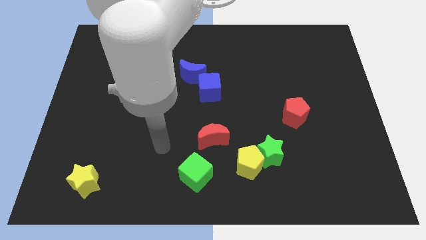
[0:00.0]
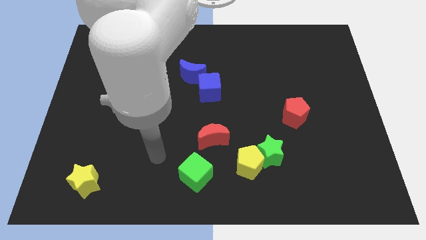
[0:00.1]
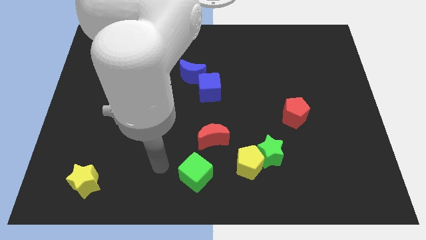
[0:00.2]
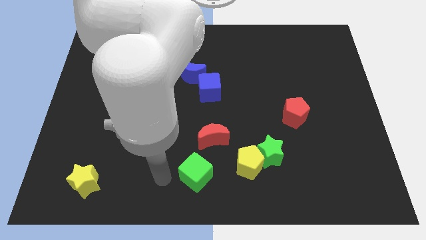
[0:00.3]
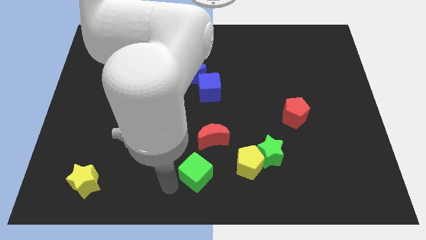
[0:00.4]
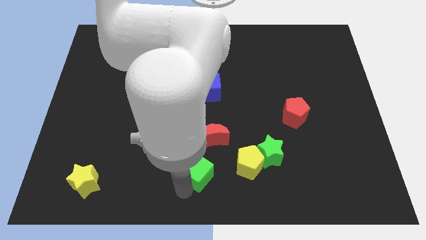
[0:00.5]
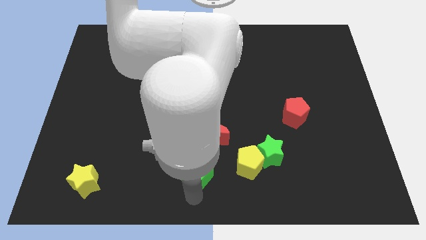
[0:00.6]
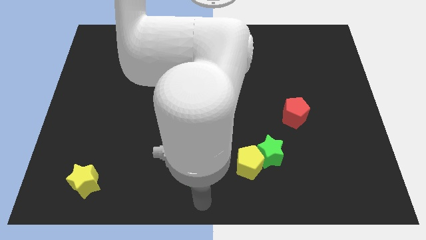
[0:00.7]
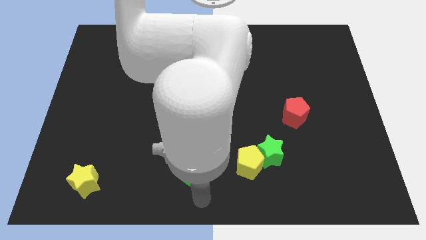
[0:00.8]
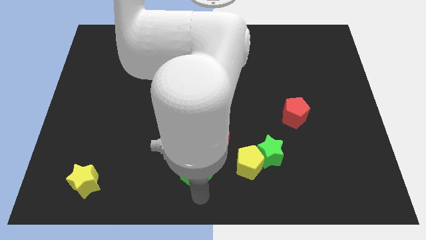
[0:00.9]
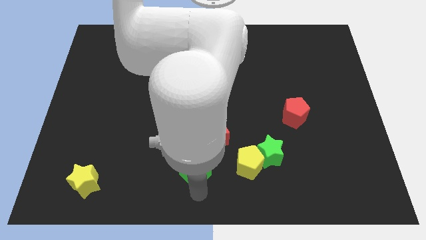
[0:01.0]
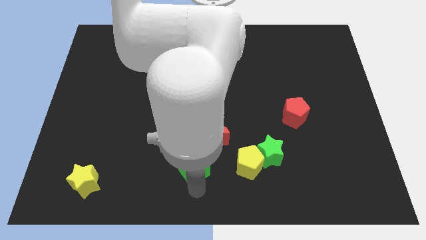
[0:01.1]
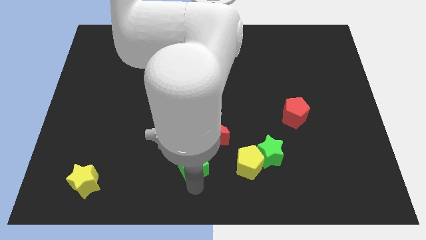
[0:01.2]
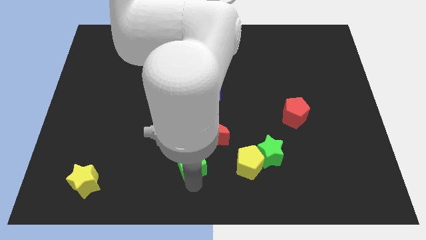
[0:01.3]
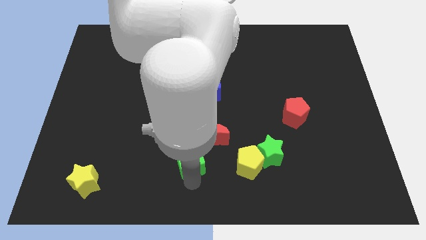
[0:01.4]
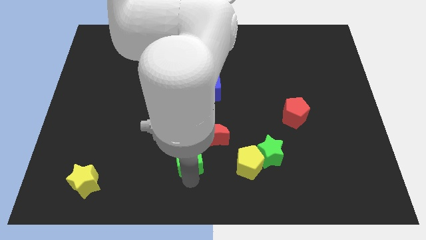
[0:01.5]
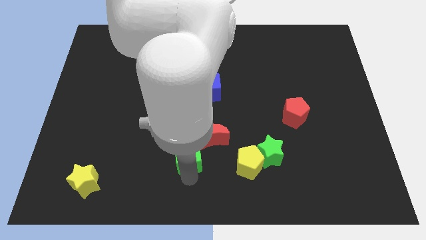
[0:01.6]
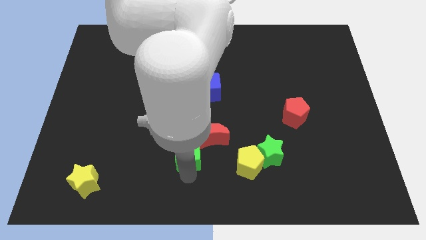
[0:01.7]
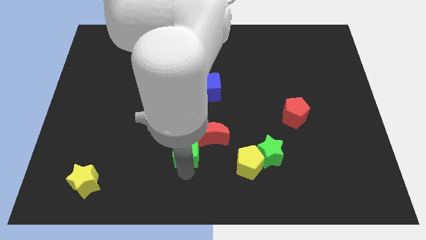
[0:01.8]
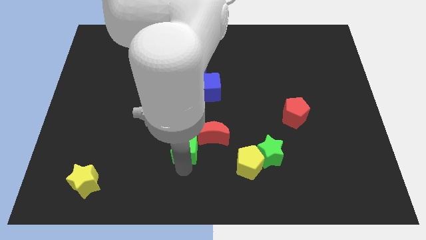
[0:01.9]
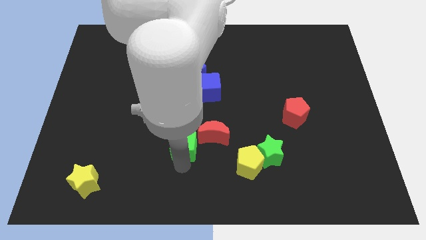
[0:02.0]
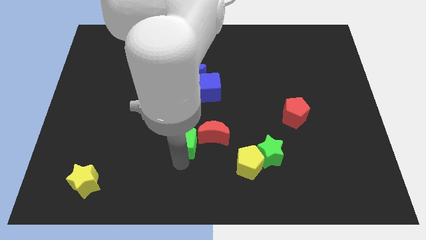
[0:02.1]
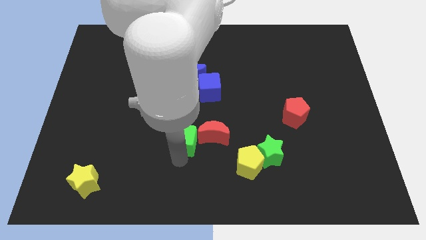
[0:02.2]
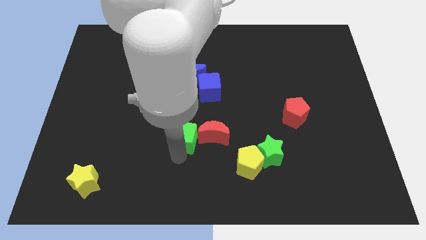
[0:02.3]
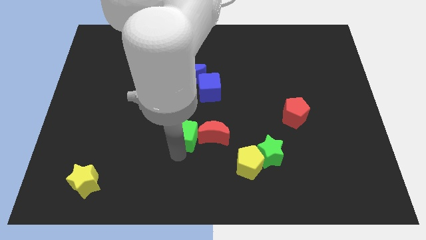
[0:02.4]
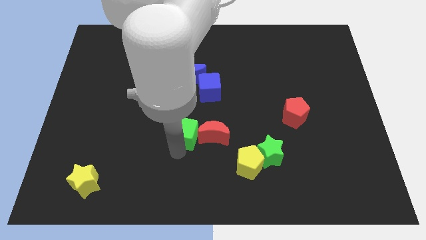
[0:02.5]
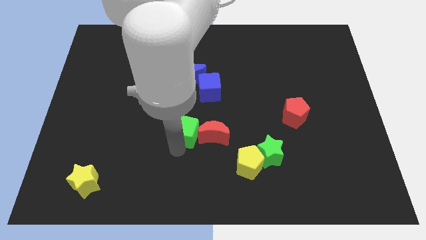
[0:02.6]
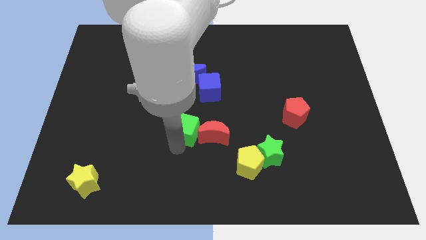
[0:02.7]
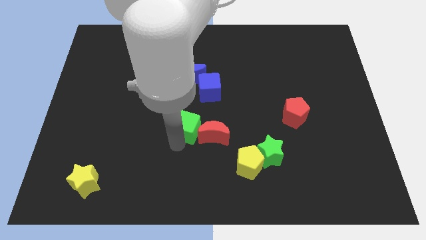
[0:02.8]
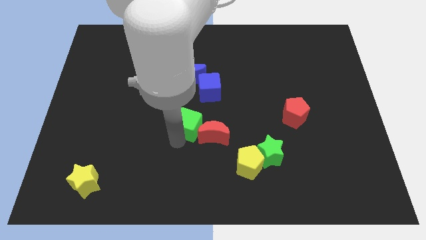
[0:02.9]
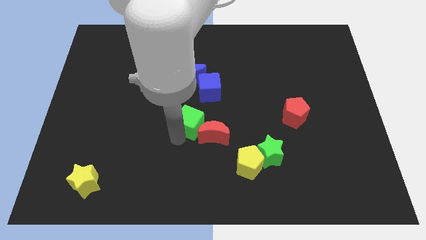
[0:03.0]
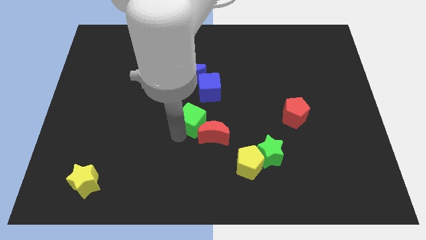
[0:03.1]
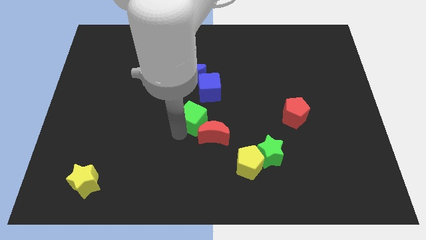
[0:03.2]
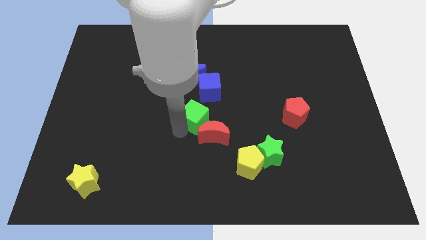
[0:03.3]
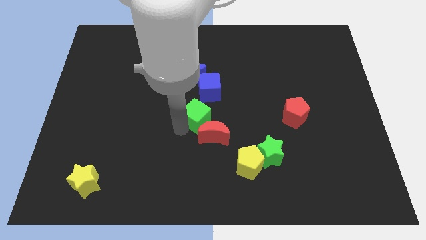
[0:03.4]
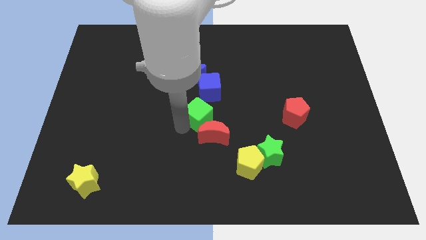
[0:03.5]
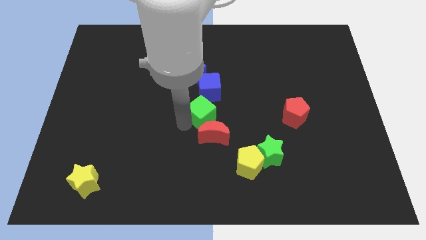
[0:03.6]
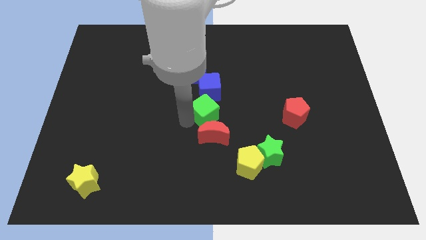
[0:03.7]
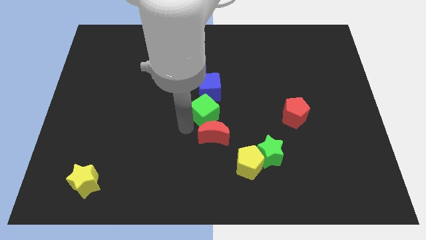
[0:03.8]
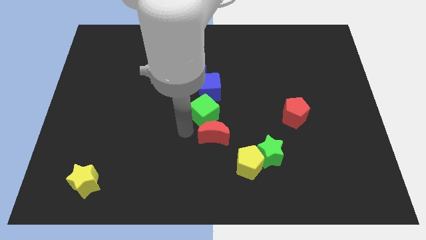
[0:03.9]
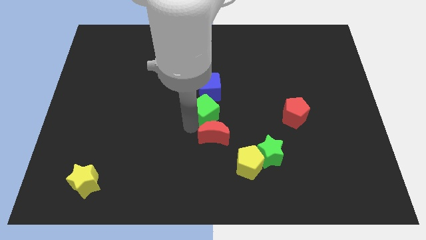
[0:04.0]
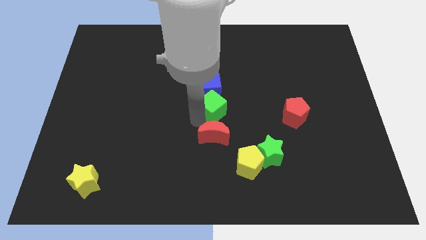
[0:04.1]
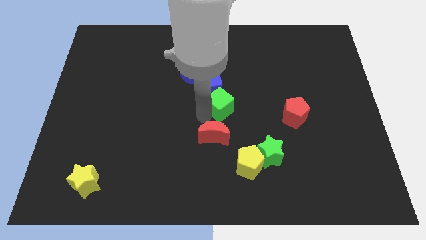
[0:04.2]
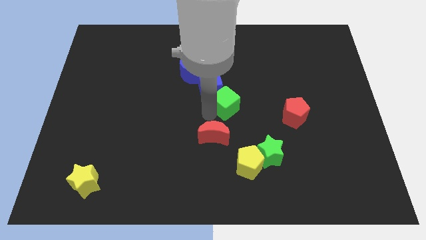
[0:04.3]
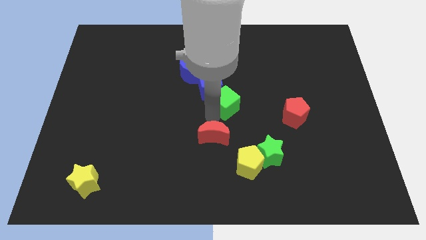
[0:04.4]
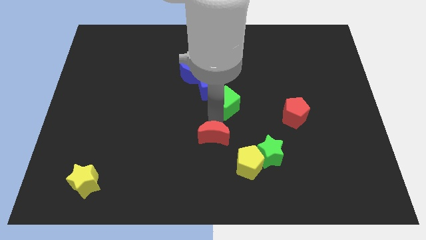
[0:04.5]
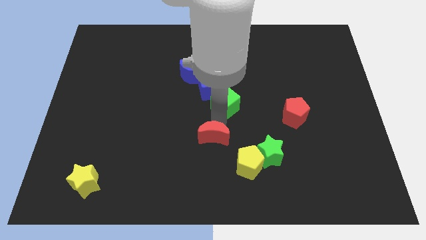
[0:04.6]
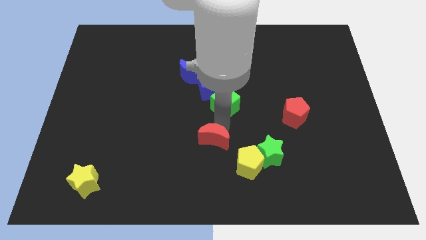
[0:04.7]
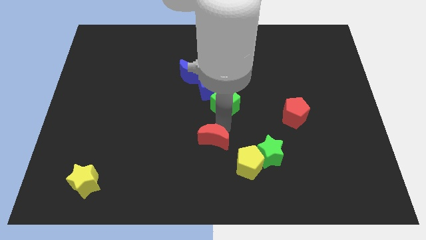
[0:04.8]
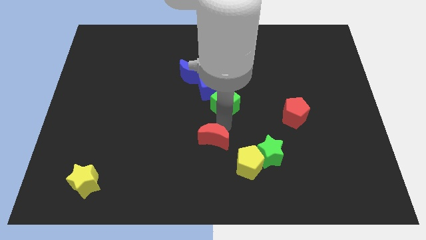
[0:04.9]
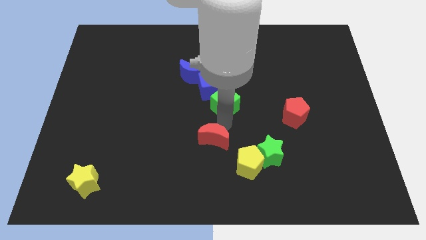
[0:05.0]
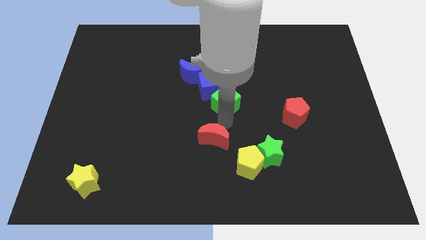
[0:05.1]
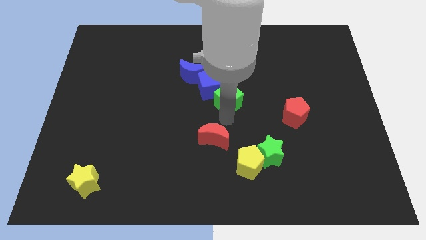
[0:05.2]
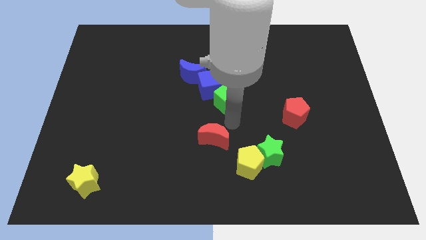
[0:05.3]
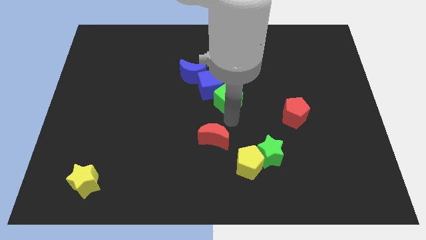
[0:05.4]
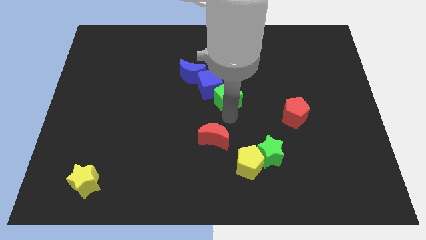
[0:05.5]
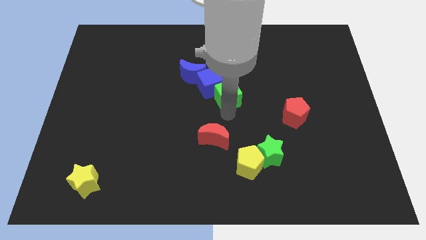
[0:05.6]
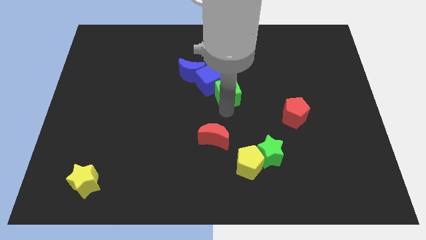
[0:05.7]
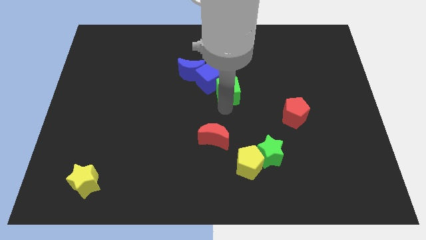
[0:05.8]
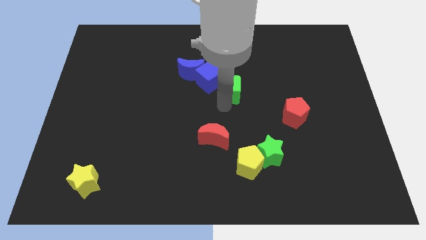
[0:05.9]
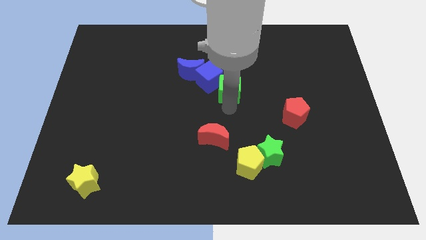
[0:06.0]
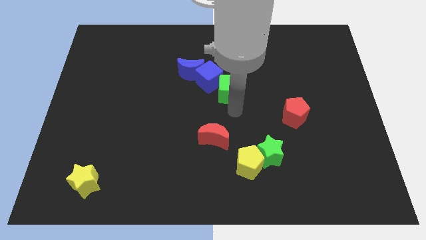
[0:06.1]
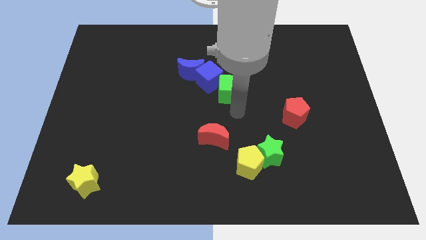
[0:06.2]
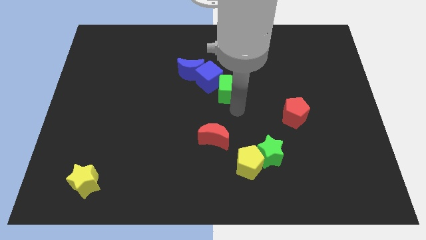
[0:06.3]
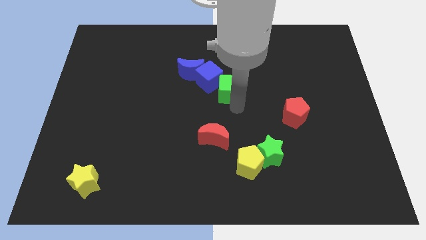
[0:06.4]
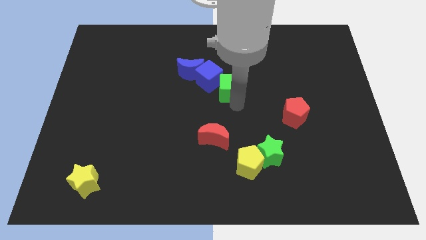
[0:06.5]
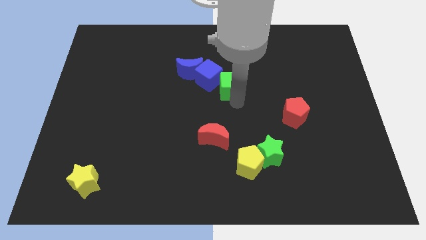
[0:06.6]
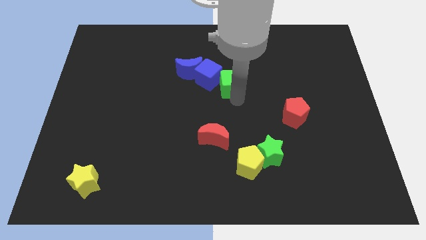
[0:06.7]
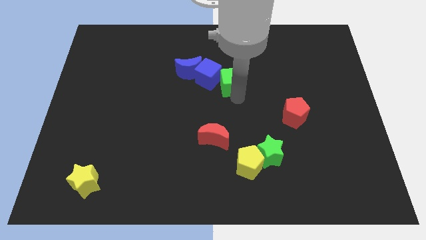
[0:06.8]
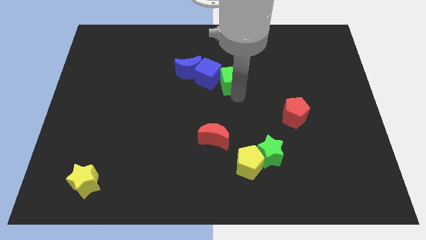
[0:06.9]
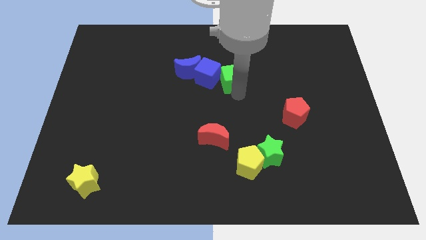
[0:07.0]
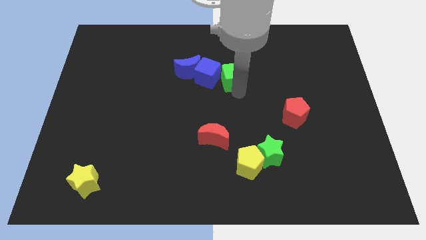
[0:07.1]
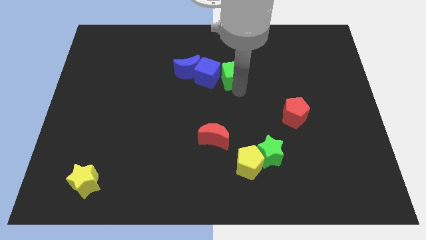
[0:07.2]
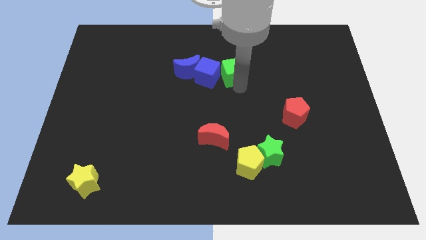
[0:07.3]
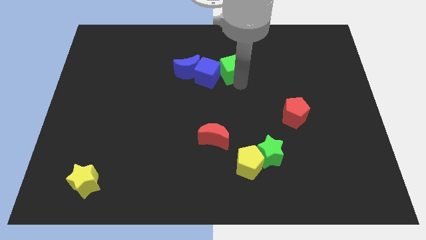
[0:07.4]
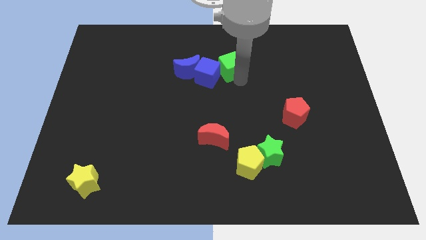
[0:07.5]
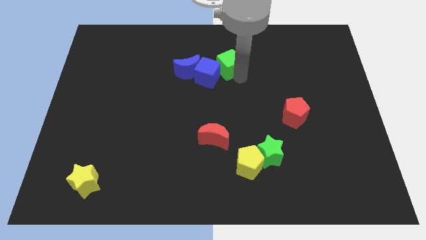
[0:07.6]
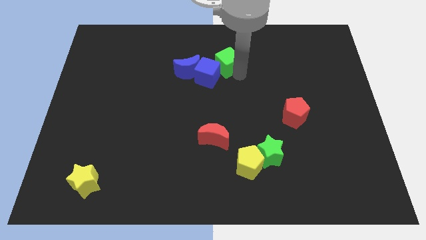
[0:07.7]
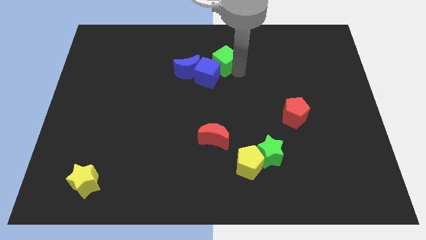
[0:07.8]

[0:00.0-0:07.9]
put the green cube to the top of the blue cube
